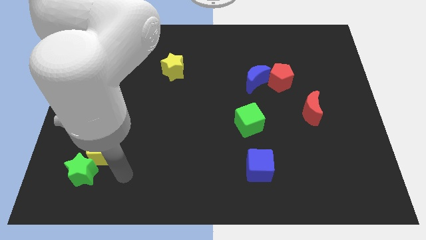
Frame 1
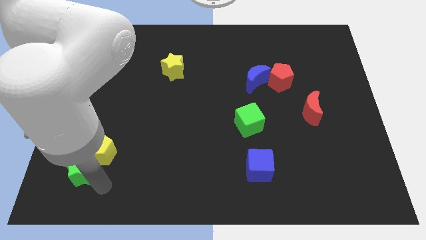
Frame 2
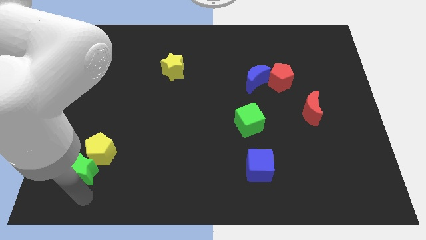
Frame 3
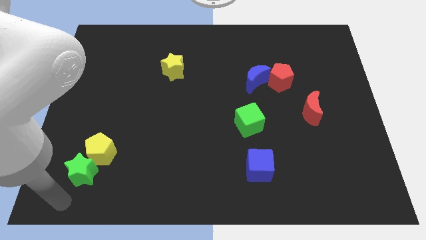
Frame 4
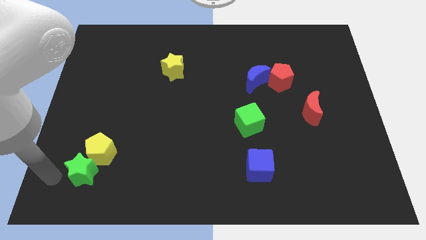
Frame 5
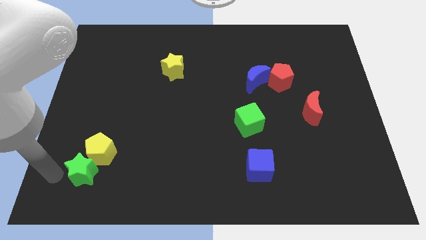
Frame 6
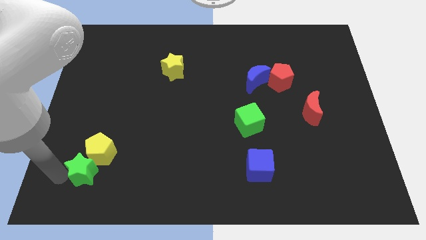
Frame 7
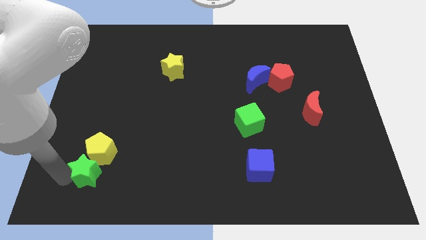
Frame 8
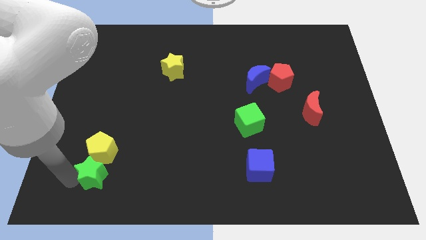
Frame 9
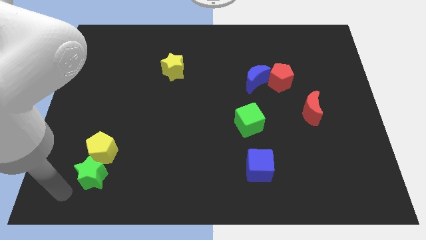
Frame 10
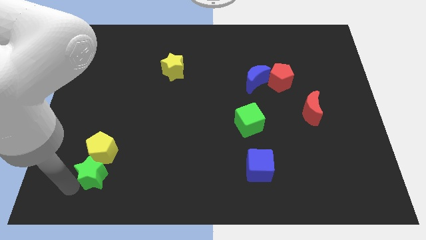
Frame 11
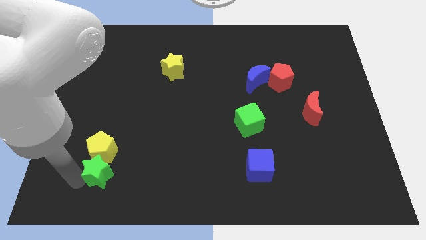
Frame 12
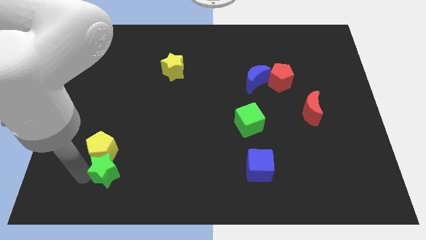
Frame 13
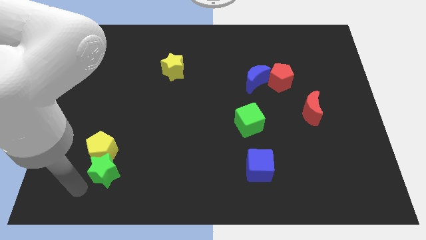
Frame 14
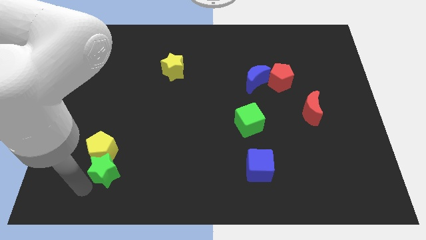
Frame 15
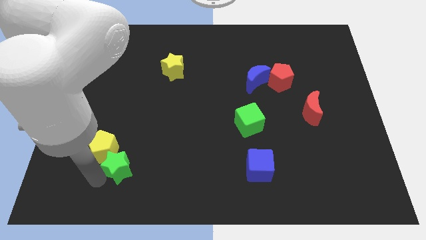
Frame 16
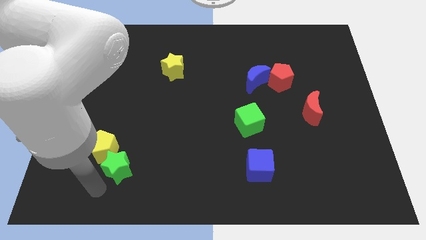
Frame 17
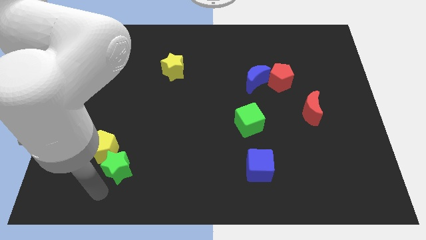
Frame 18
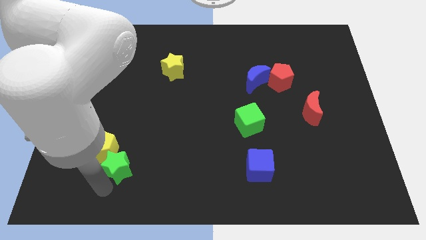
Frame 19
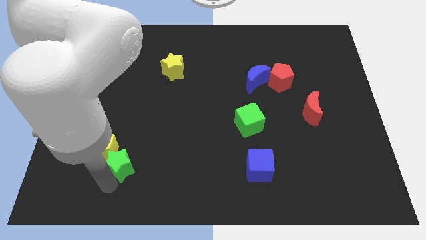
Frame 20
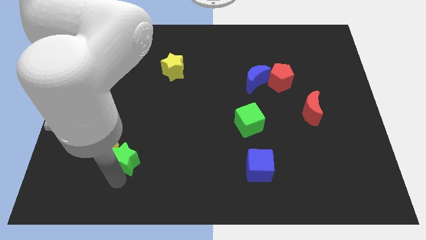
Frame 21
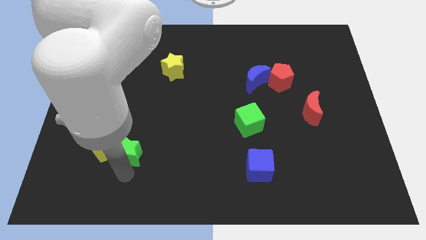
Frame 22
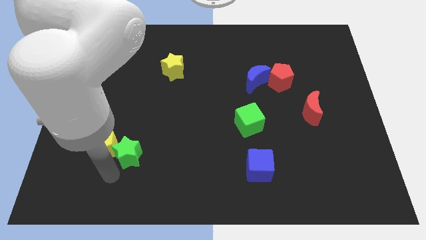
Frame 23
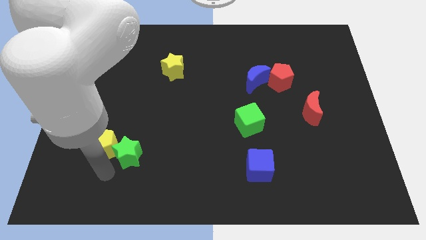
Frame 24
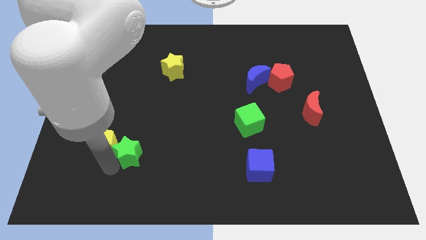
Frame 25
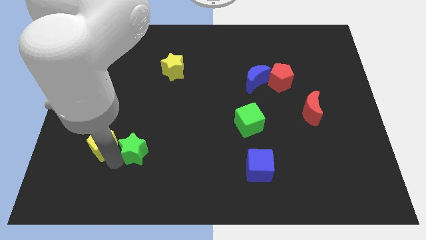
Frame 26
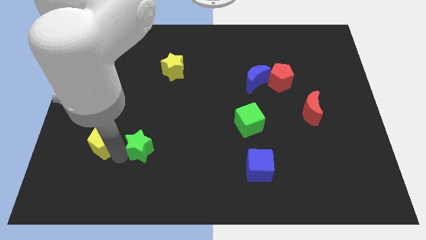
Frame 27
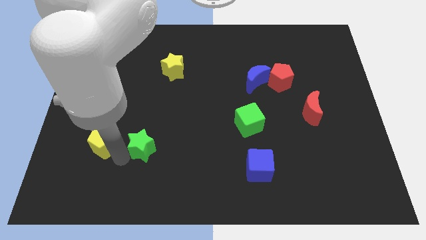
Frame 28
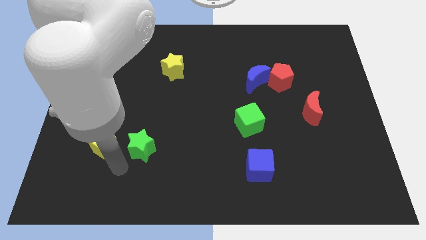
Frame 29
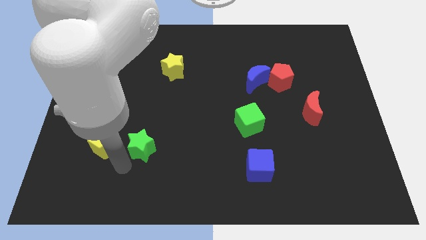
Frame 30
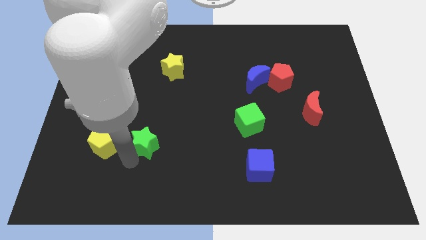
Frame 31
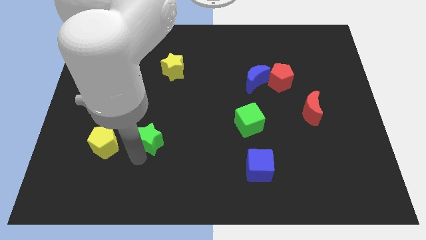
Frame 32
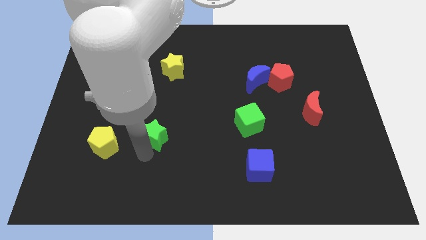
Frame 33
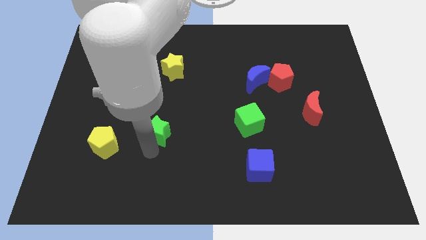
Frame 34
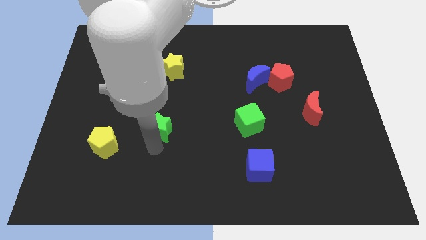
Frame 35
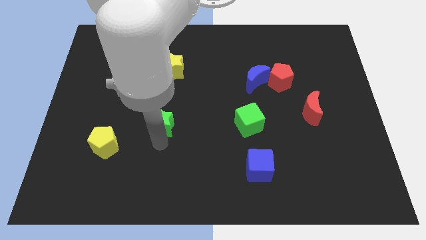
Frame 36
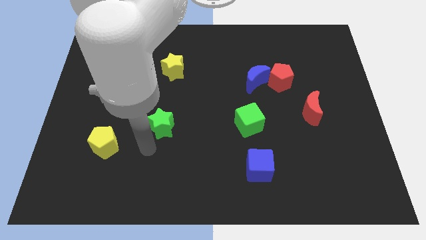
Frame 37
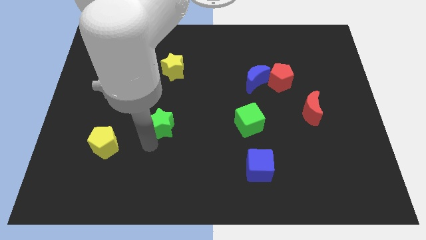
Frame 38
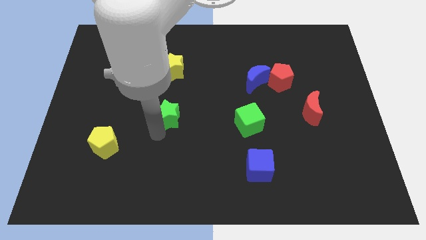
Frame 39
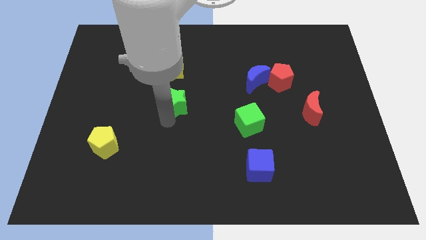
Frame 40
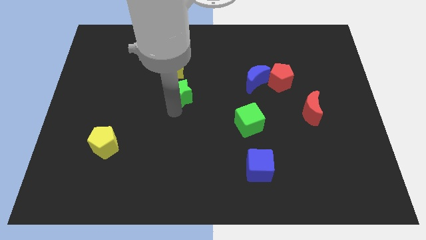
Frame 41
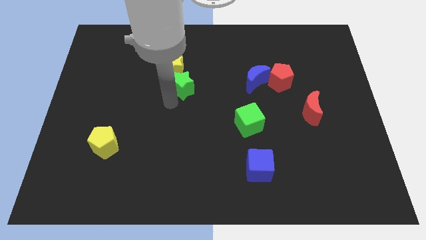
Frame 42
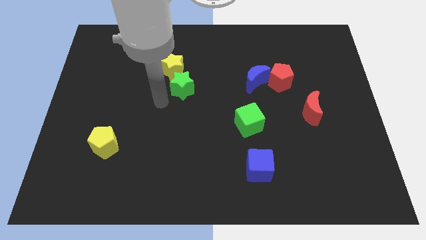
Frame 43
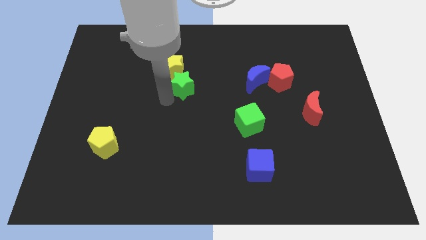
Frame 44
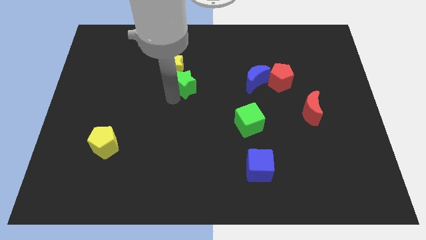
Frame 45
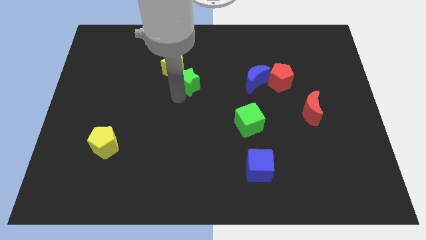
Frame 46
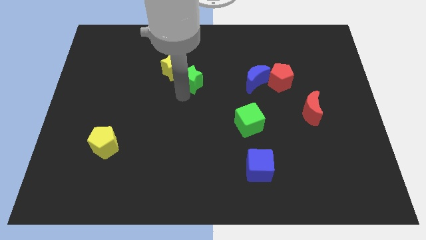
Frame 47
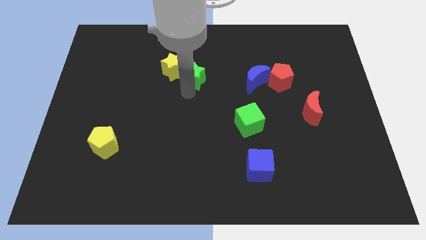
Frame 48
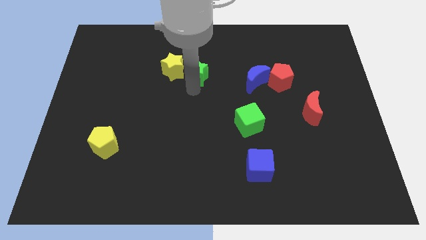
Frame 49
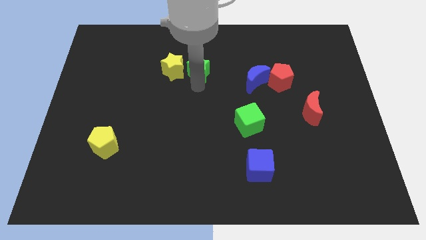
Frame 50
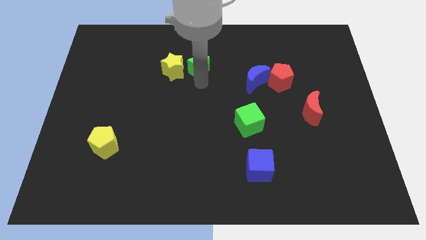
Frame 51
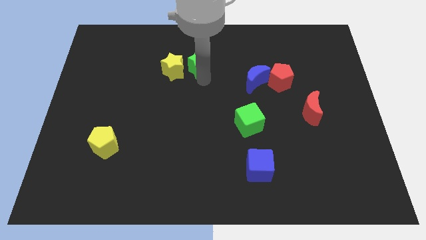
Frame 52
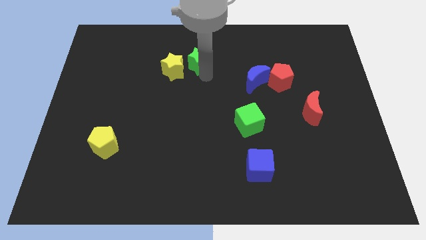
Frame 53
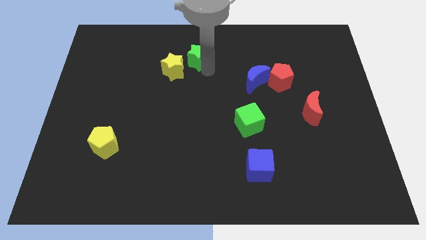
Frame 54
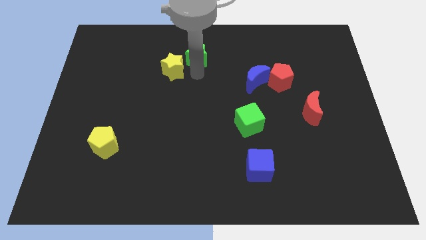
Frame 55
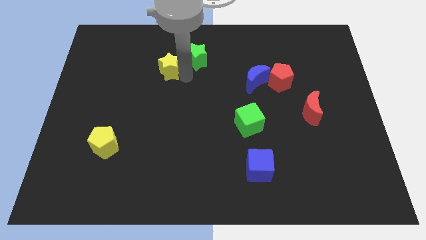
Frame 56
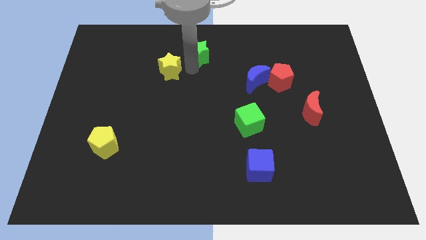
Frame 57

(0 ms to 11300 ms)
push the green star to the towards your base

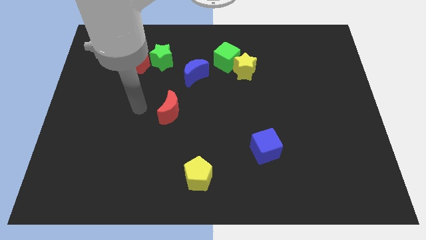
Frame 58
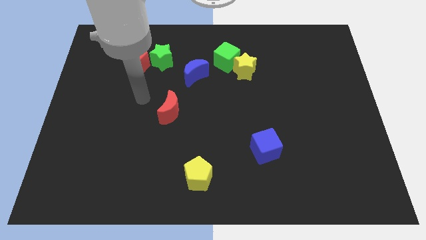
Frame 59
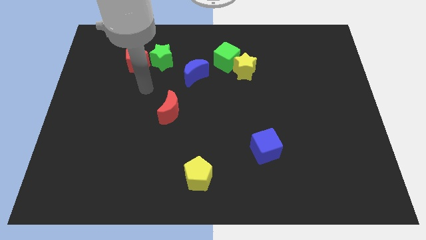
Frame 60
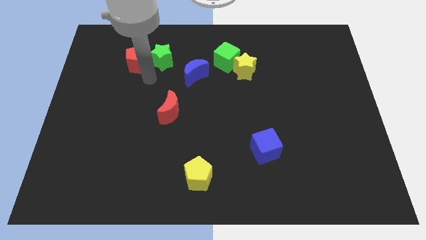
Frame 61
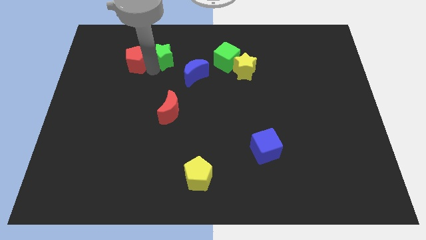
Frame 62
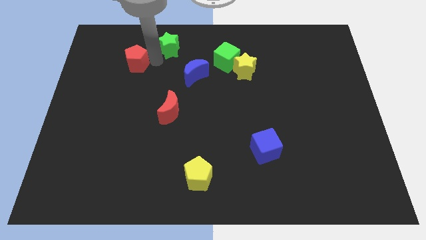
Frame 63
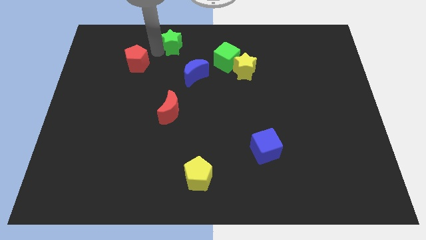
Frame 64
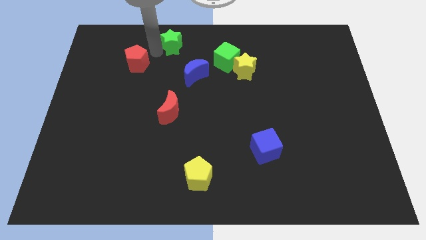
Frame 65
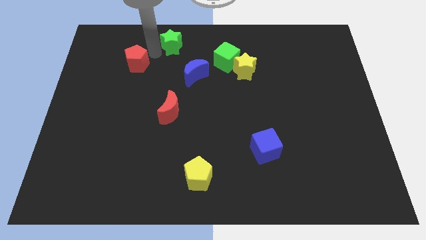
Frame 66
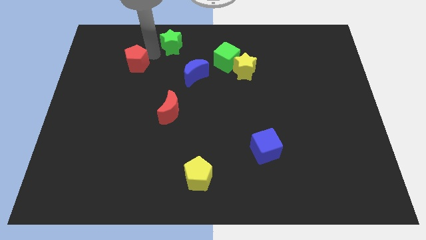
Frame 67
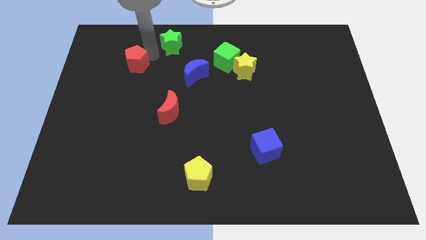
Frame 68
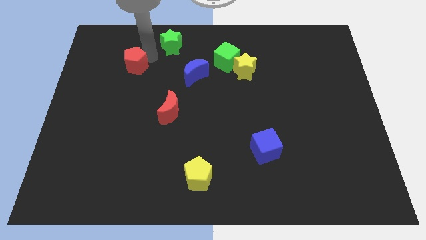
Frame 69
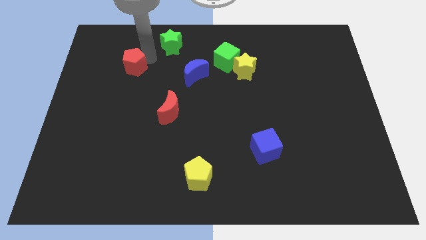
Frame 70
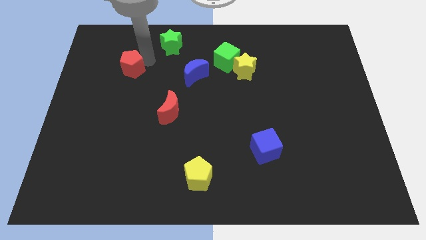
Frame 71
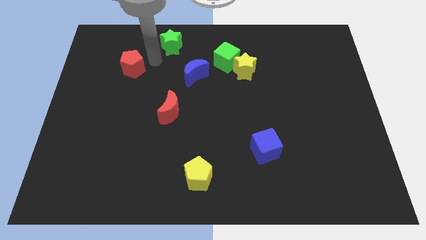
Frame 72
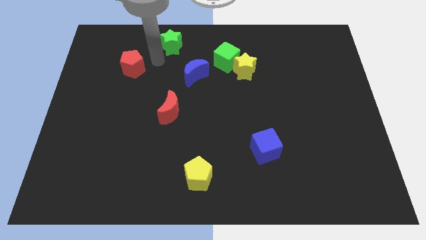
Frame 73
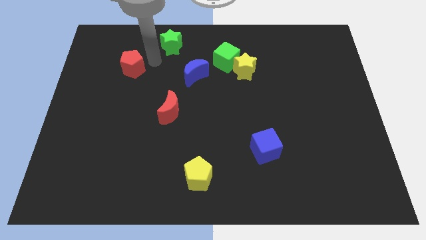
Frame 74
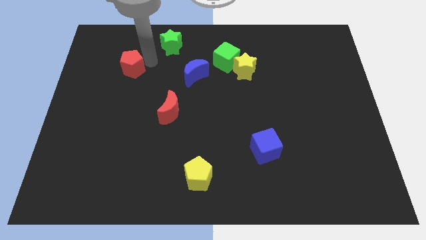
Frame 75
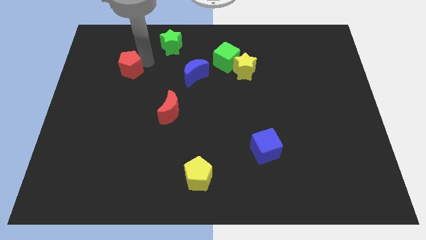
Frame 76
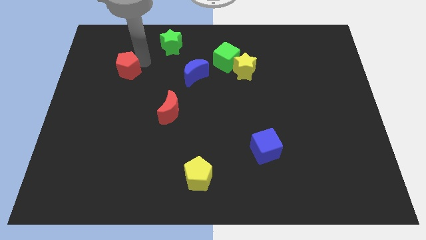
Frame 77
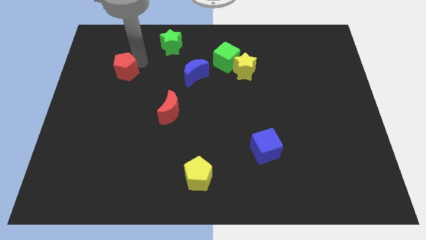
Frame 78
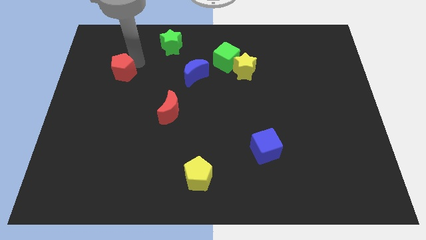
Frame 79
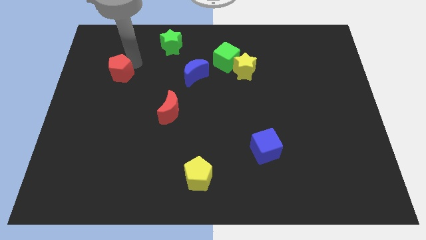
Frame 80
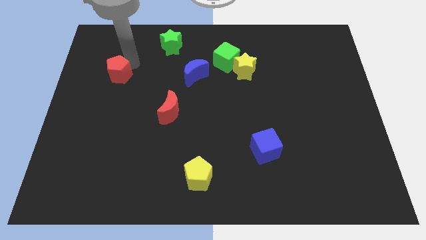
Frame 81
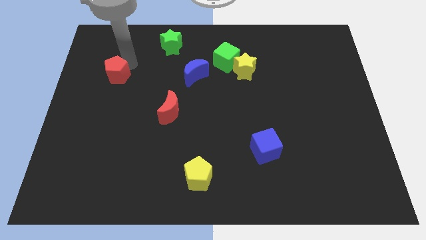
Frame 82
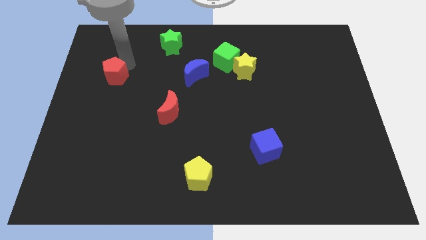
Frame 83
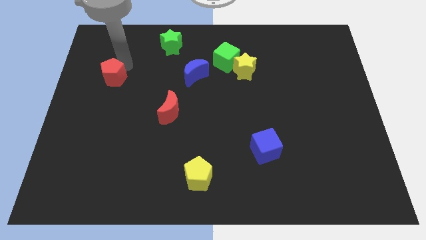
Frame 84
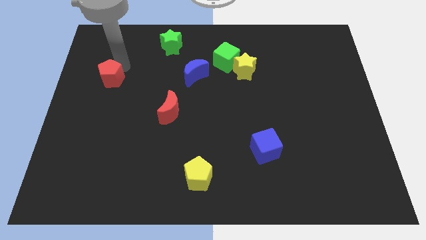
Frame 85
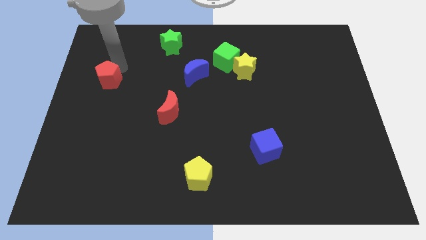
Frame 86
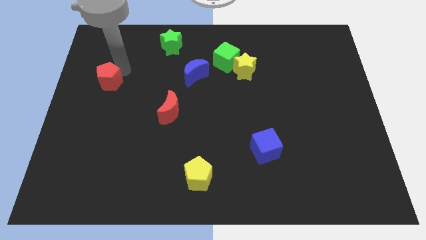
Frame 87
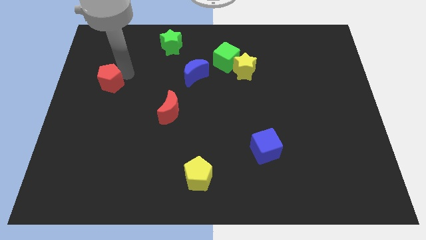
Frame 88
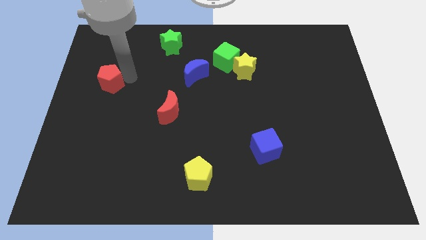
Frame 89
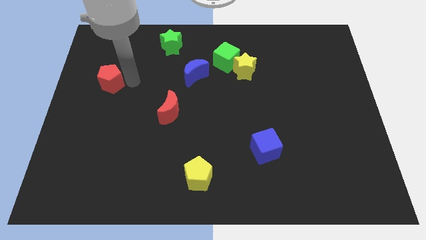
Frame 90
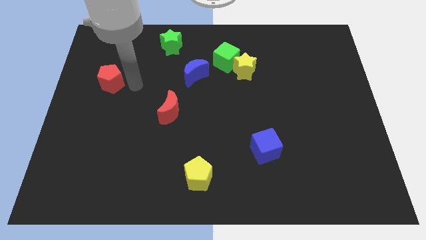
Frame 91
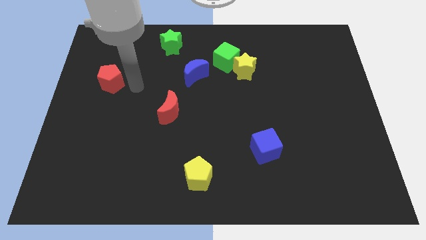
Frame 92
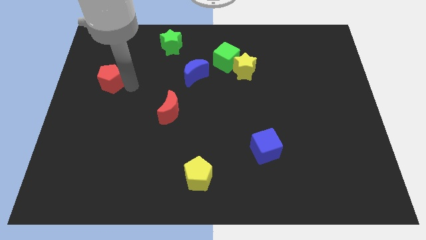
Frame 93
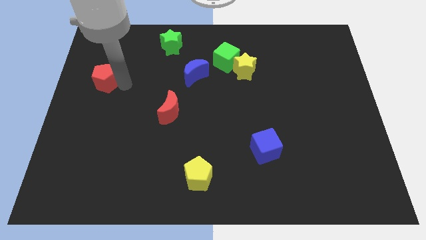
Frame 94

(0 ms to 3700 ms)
put the red pentagon to the left side
